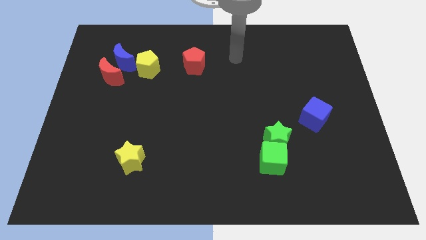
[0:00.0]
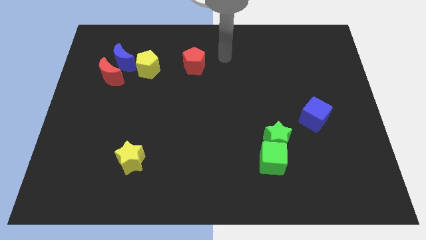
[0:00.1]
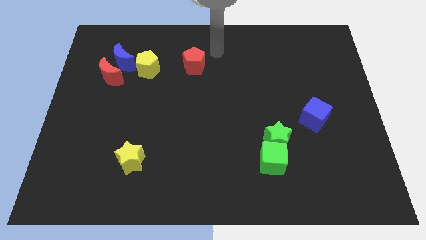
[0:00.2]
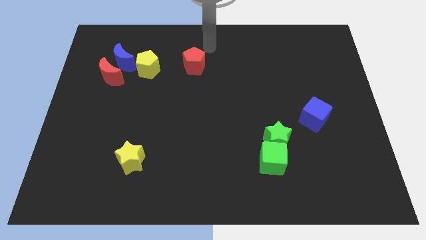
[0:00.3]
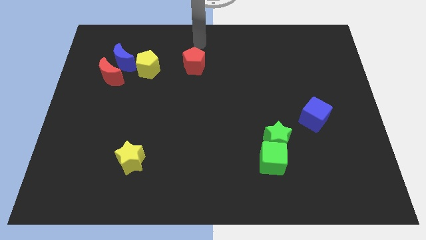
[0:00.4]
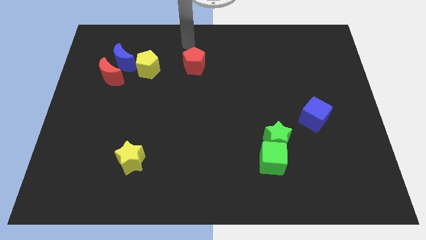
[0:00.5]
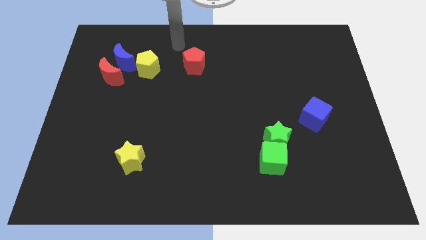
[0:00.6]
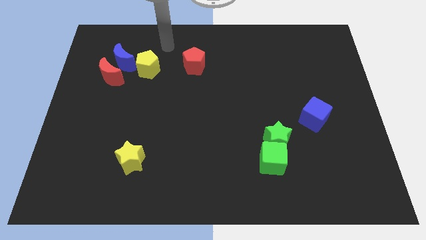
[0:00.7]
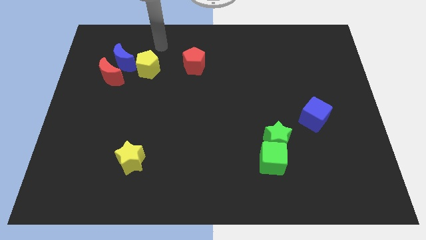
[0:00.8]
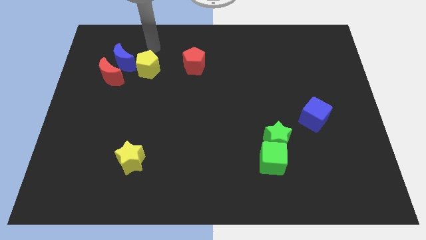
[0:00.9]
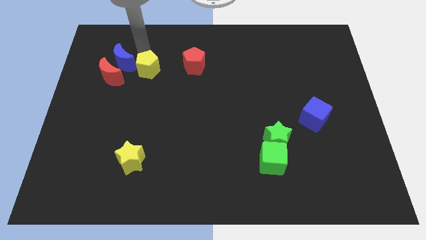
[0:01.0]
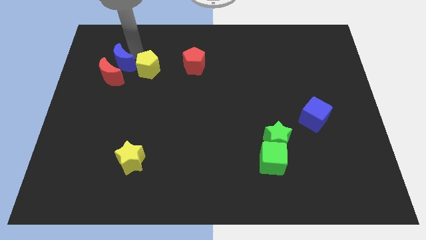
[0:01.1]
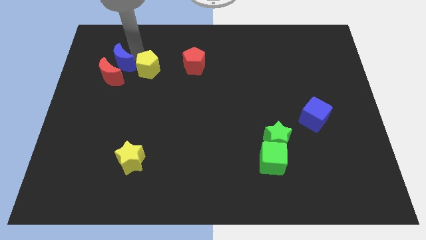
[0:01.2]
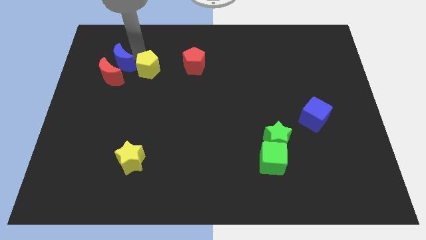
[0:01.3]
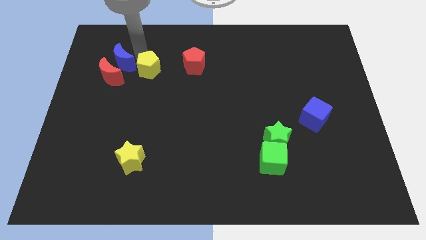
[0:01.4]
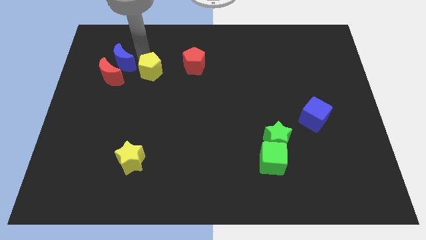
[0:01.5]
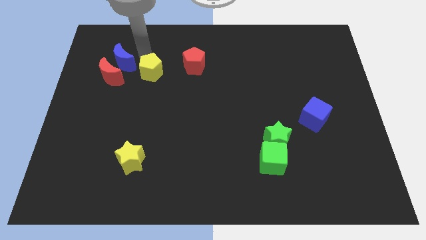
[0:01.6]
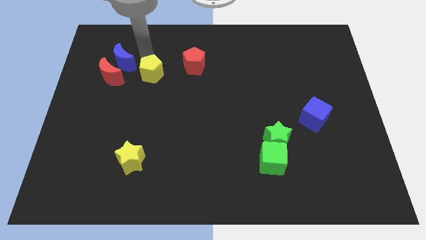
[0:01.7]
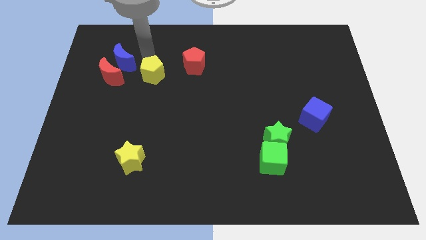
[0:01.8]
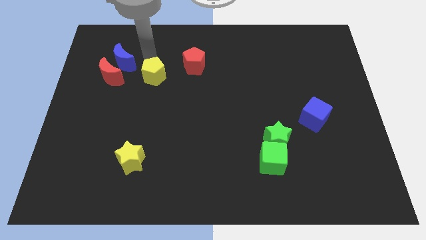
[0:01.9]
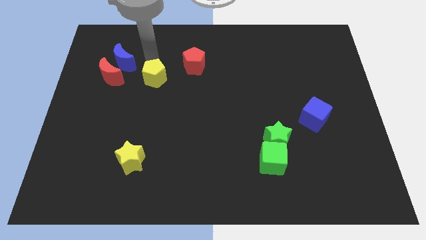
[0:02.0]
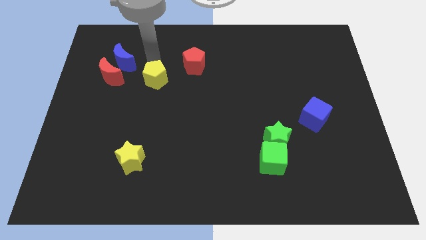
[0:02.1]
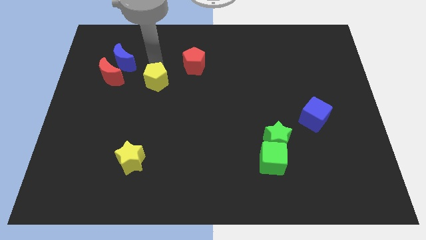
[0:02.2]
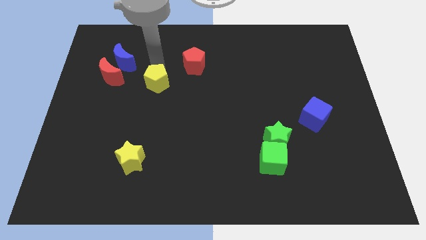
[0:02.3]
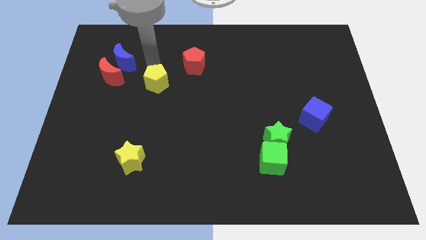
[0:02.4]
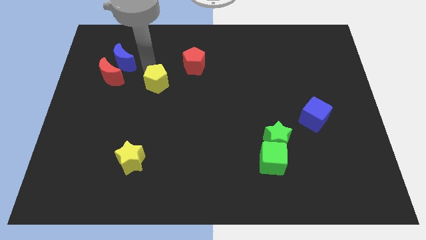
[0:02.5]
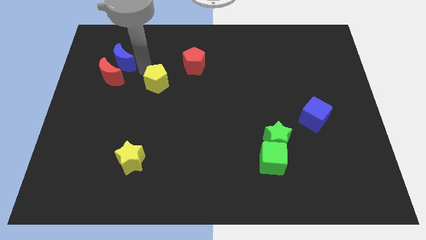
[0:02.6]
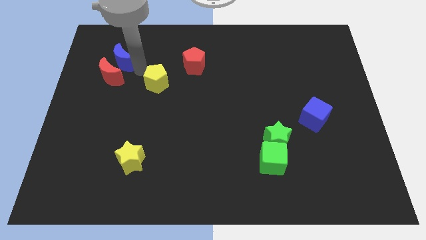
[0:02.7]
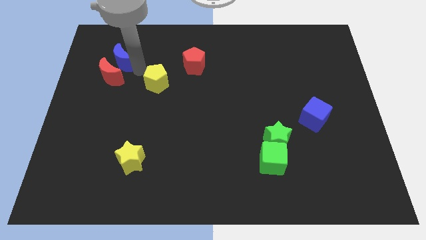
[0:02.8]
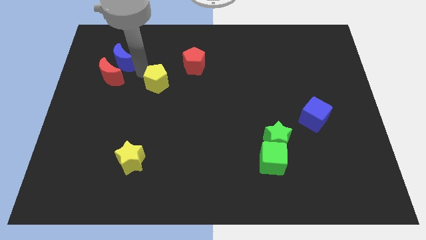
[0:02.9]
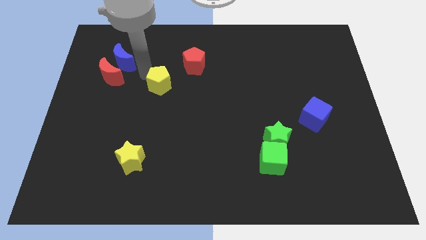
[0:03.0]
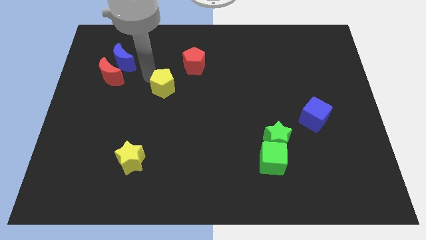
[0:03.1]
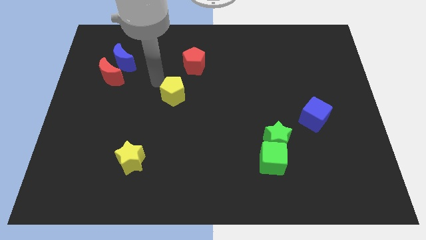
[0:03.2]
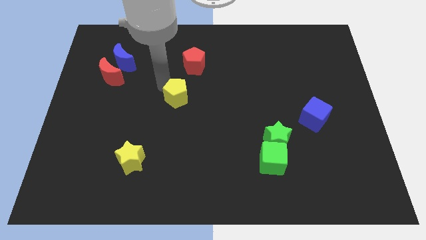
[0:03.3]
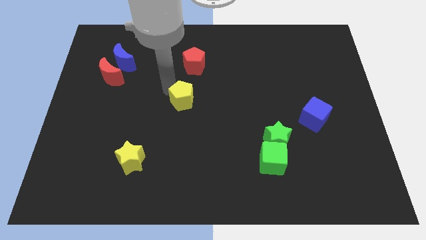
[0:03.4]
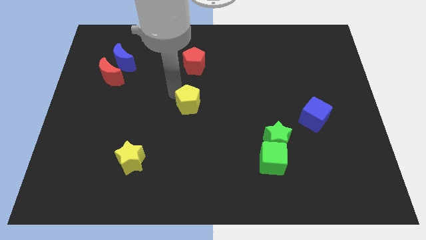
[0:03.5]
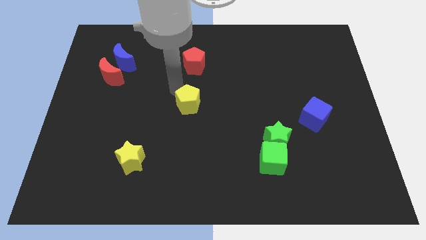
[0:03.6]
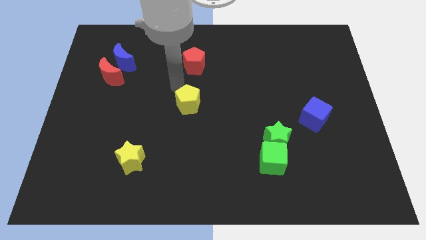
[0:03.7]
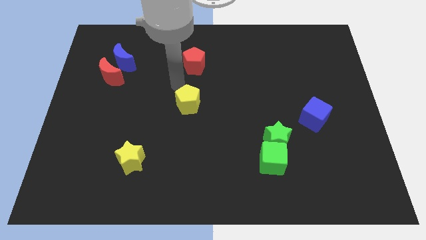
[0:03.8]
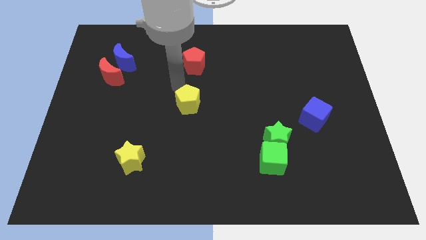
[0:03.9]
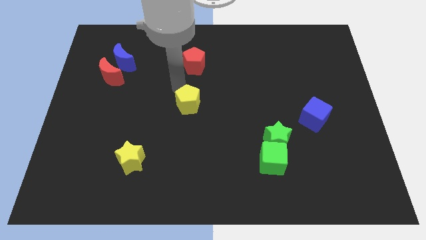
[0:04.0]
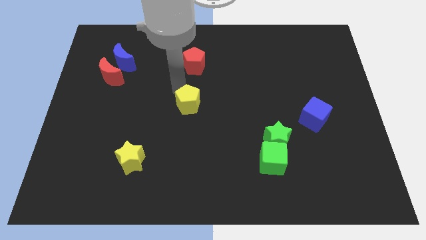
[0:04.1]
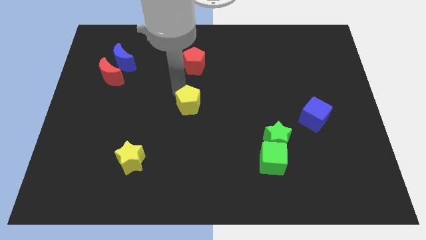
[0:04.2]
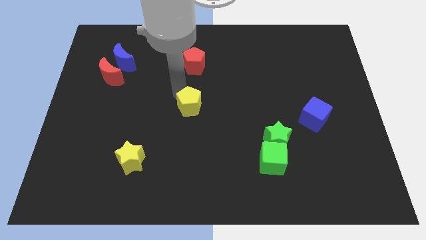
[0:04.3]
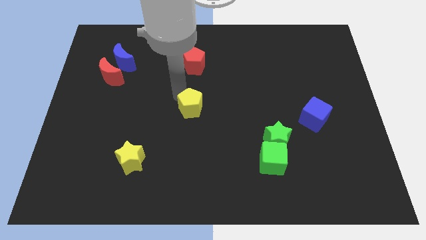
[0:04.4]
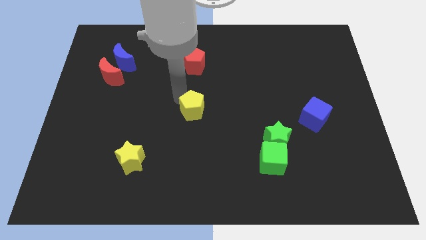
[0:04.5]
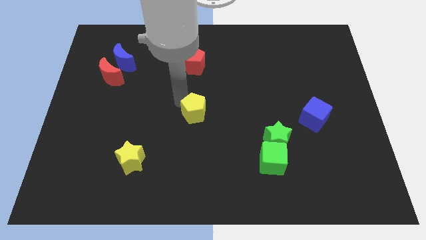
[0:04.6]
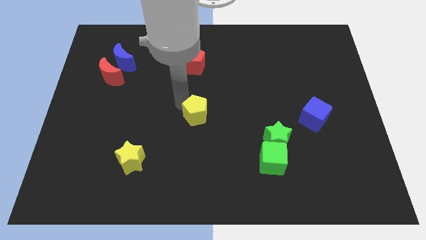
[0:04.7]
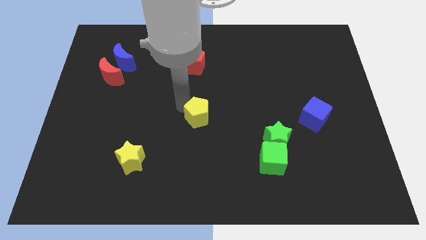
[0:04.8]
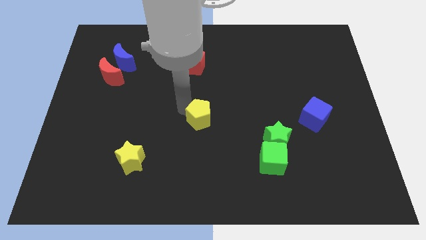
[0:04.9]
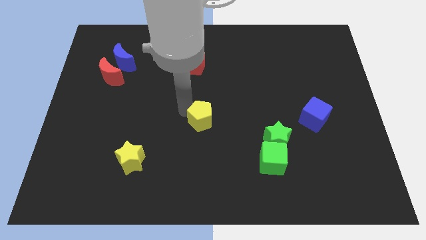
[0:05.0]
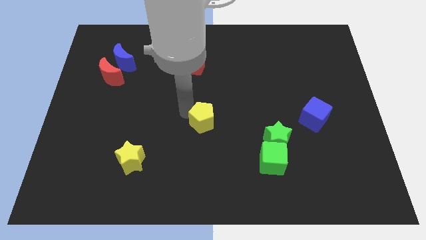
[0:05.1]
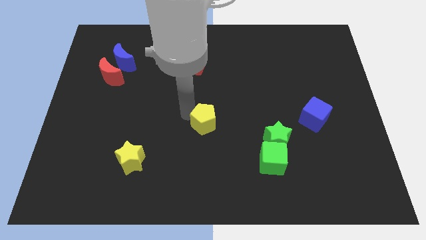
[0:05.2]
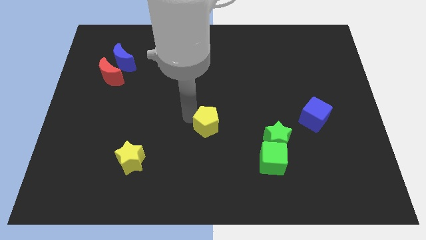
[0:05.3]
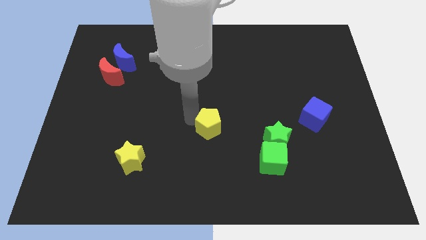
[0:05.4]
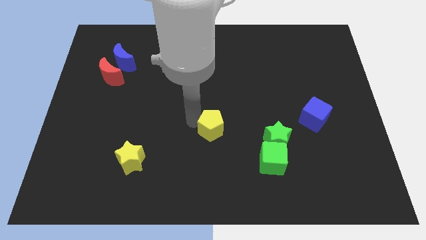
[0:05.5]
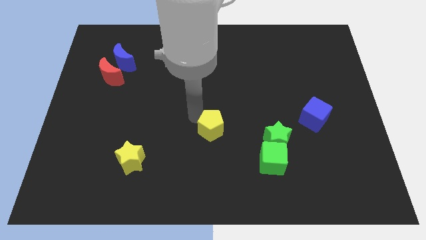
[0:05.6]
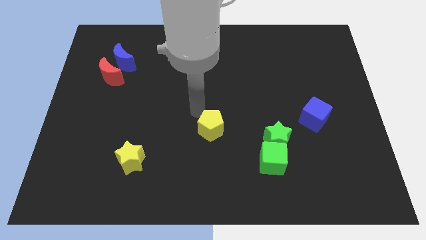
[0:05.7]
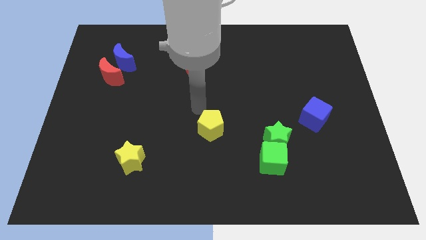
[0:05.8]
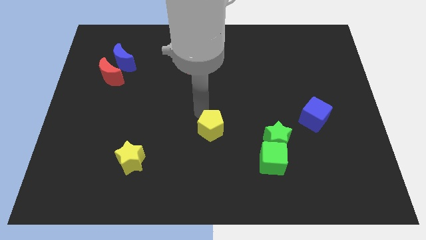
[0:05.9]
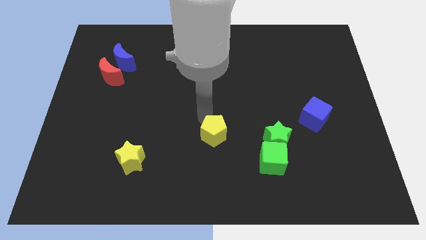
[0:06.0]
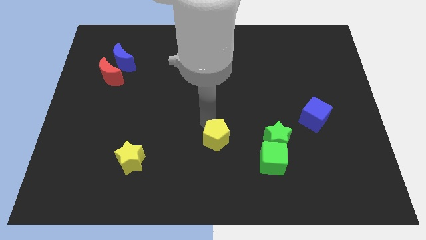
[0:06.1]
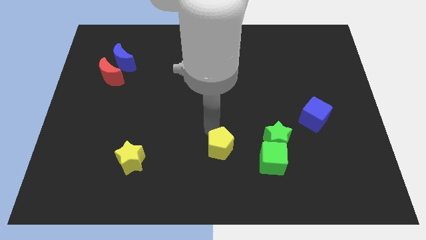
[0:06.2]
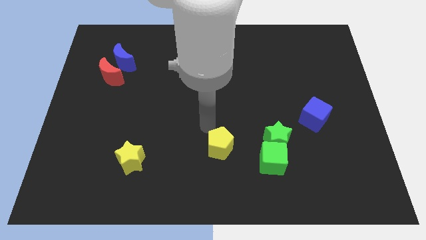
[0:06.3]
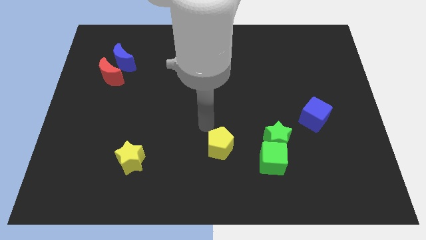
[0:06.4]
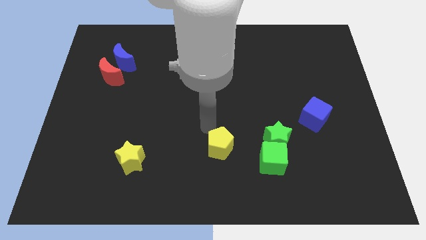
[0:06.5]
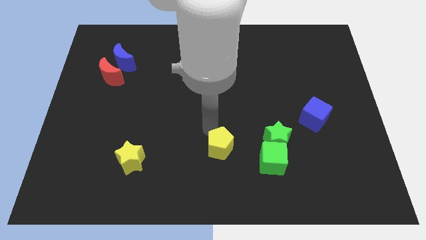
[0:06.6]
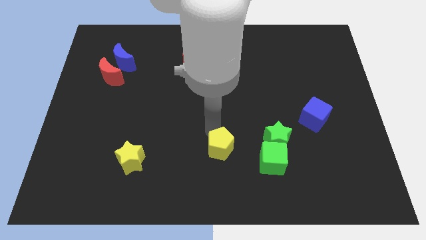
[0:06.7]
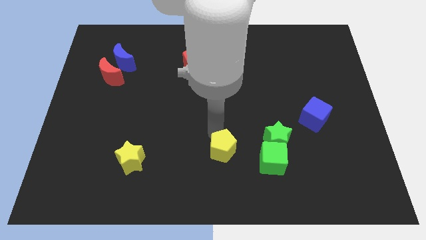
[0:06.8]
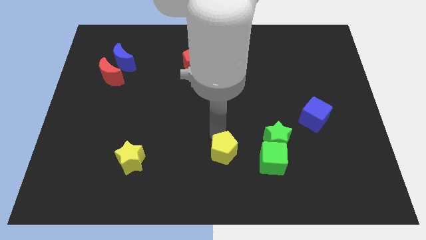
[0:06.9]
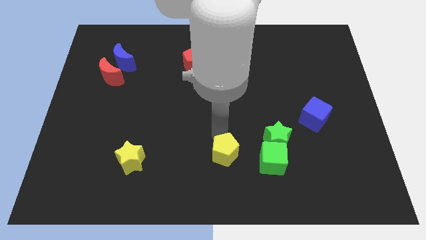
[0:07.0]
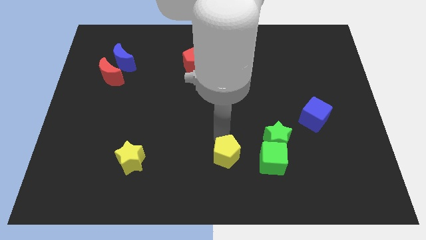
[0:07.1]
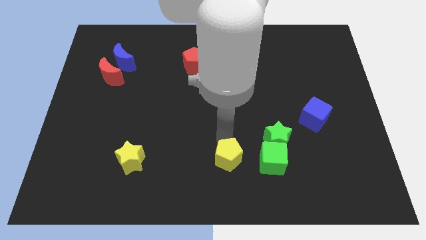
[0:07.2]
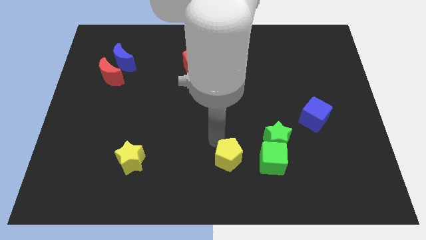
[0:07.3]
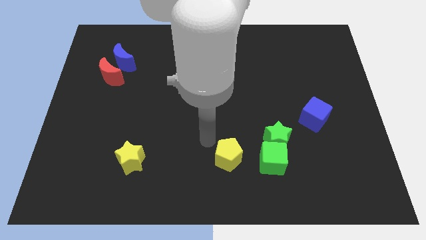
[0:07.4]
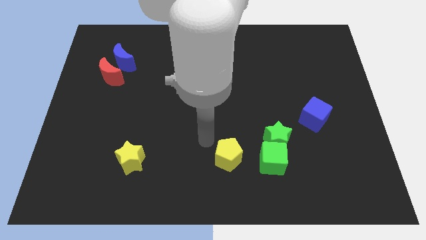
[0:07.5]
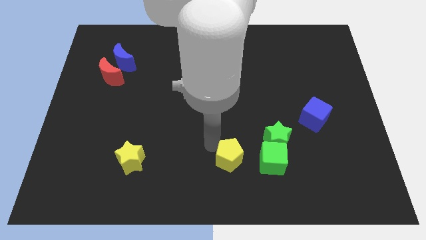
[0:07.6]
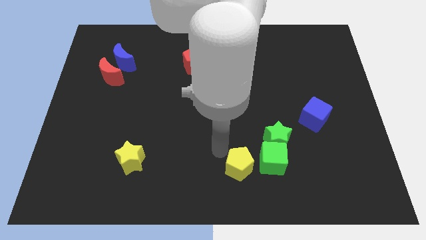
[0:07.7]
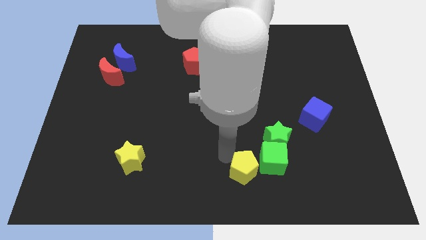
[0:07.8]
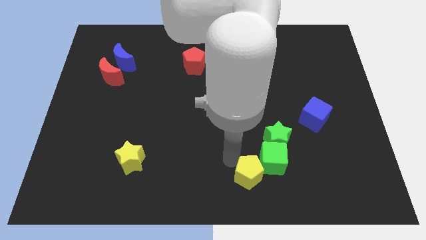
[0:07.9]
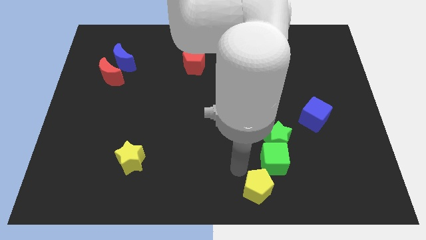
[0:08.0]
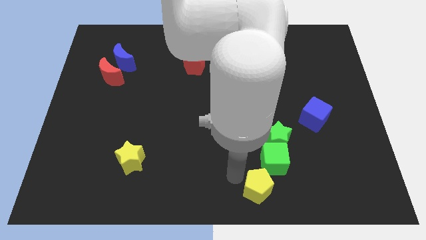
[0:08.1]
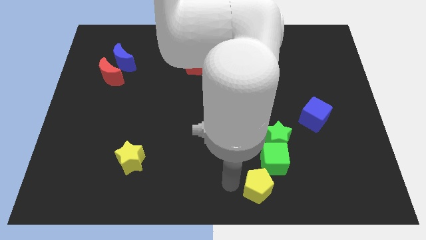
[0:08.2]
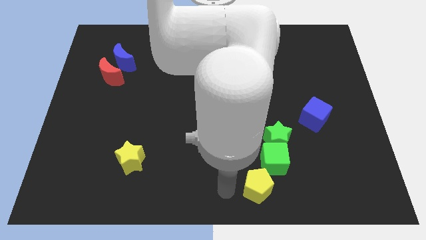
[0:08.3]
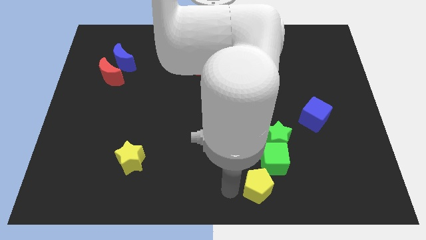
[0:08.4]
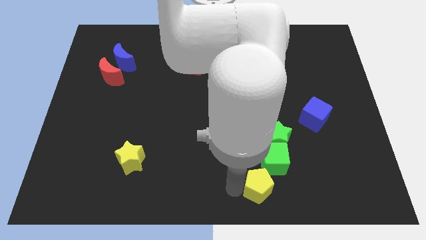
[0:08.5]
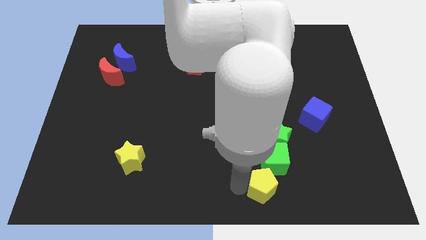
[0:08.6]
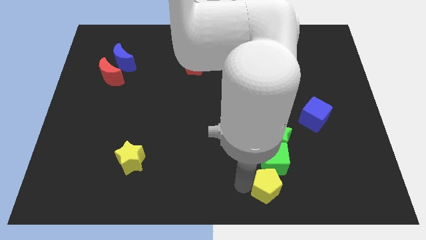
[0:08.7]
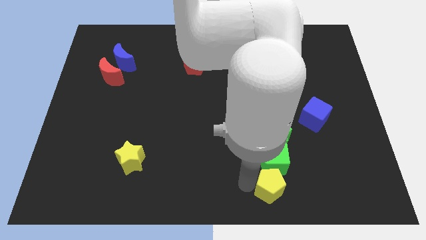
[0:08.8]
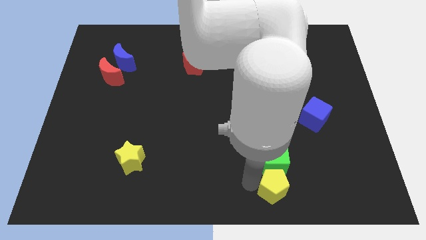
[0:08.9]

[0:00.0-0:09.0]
push the yellow pentagon to the bottom right of the green cube
